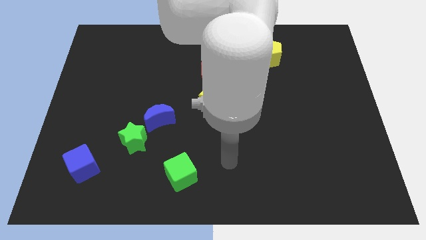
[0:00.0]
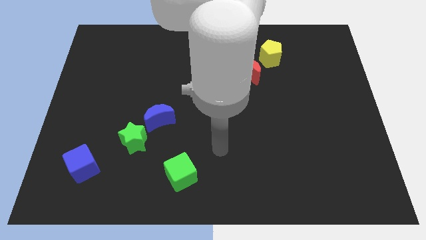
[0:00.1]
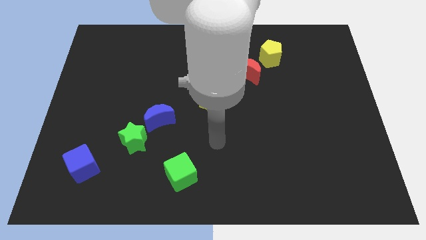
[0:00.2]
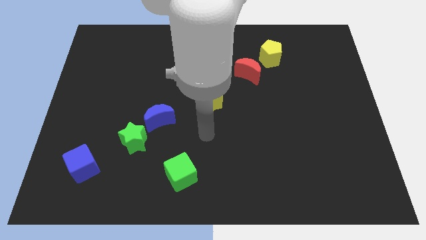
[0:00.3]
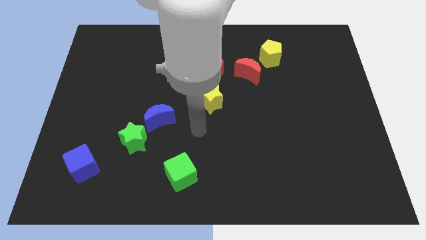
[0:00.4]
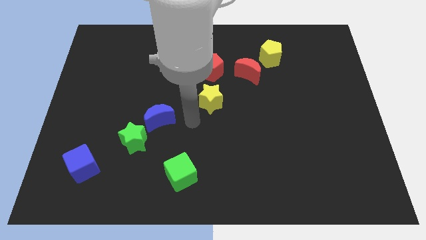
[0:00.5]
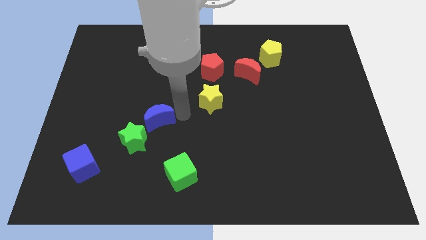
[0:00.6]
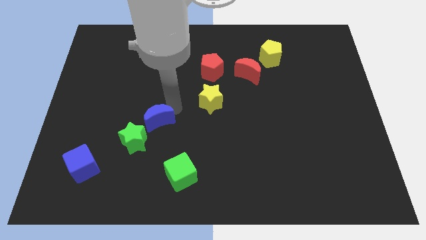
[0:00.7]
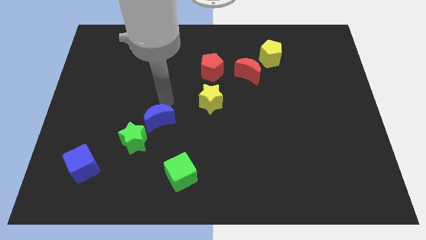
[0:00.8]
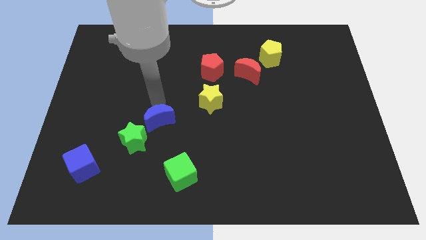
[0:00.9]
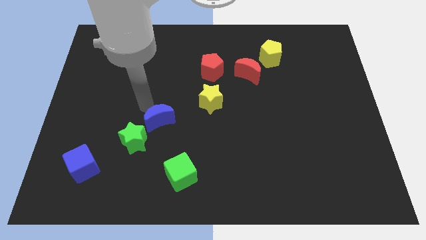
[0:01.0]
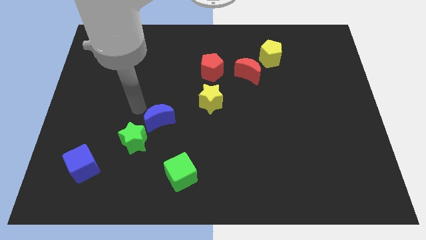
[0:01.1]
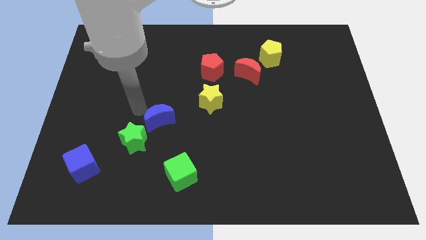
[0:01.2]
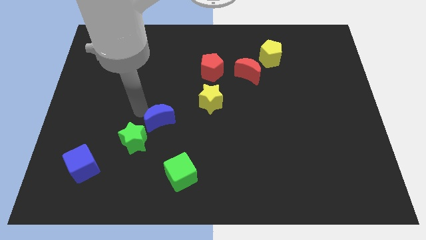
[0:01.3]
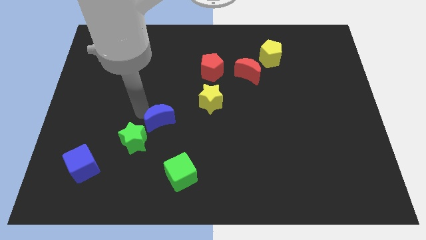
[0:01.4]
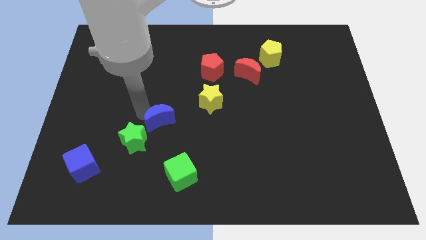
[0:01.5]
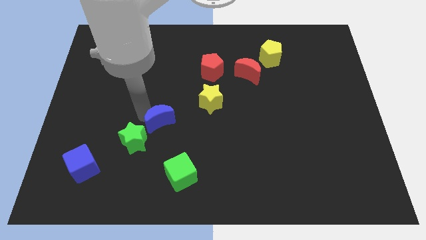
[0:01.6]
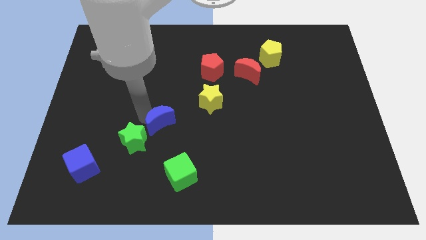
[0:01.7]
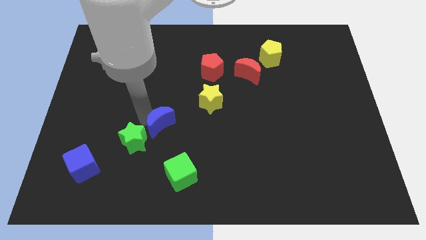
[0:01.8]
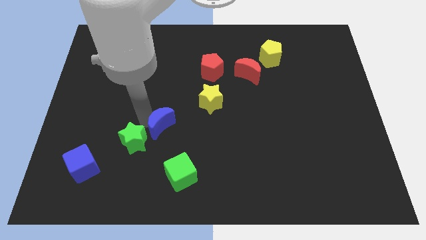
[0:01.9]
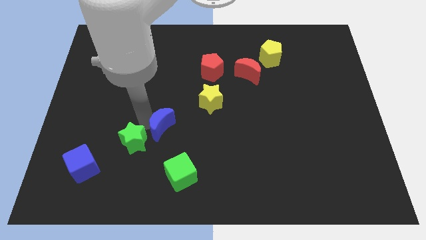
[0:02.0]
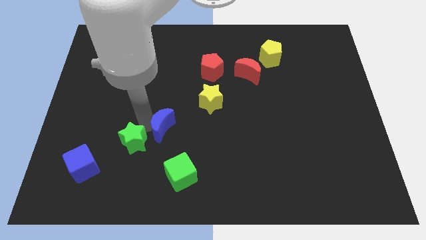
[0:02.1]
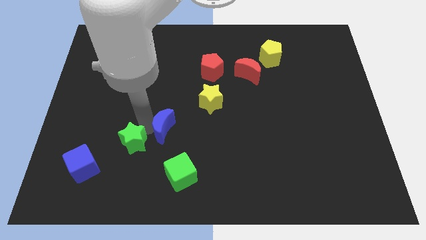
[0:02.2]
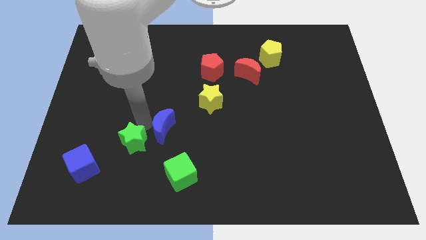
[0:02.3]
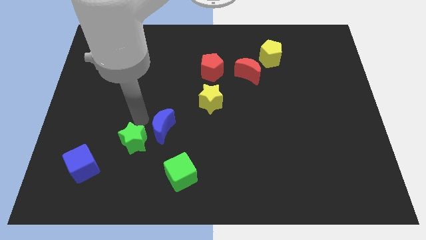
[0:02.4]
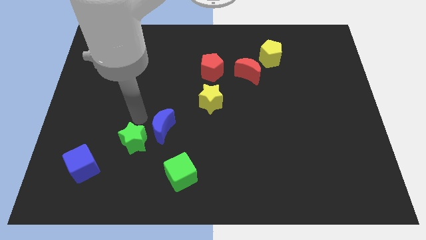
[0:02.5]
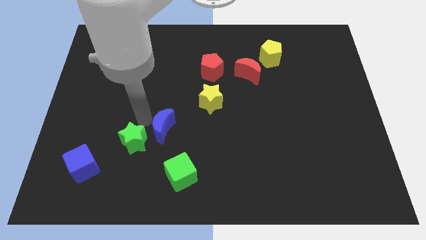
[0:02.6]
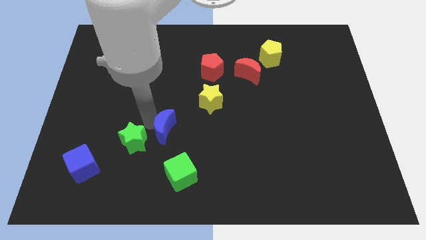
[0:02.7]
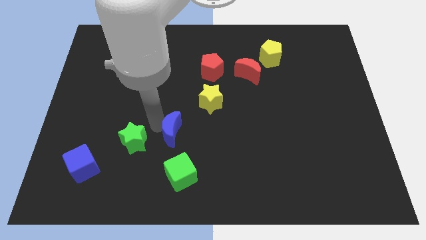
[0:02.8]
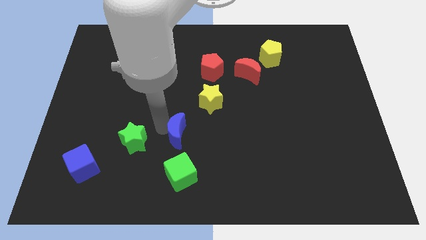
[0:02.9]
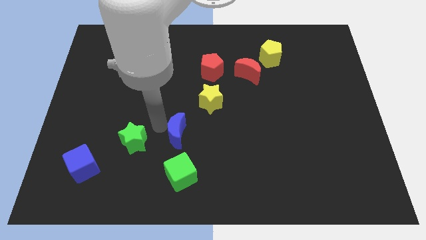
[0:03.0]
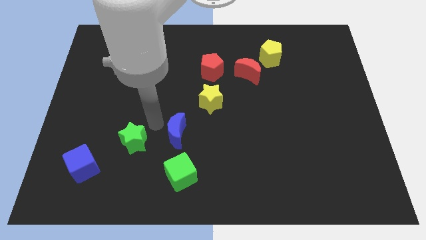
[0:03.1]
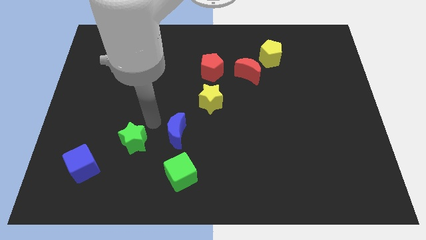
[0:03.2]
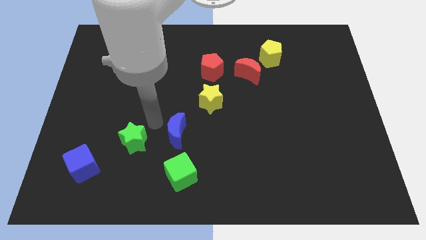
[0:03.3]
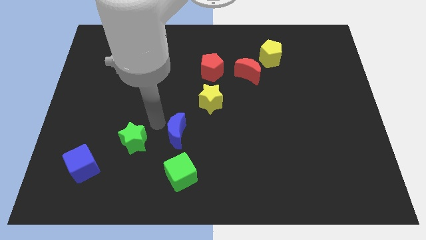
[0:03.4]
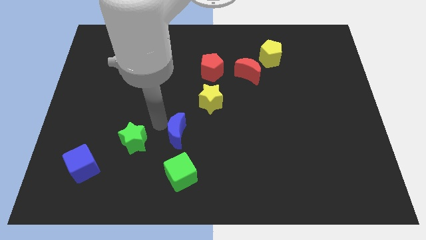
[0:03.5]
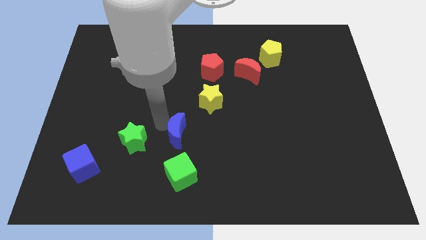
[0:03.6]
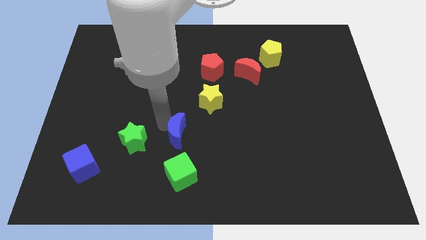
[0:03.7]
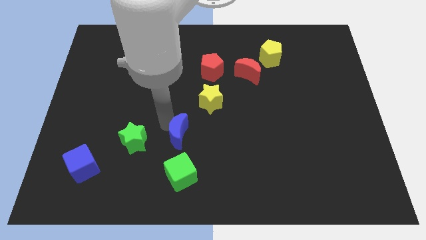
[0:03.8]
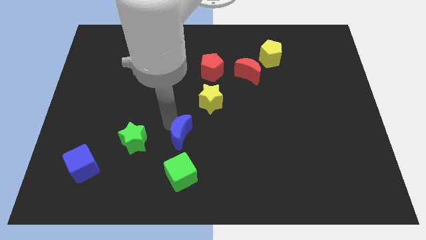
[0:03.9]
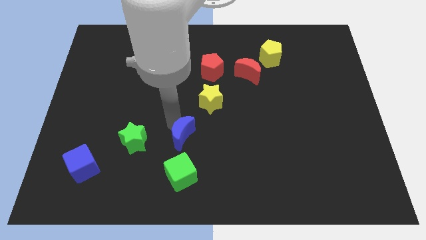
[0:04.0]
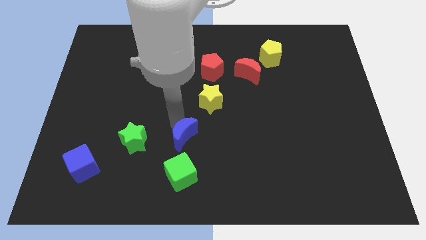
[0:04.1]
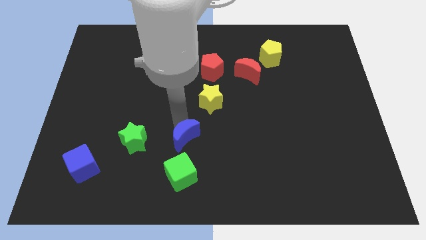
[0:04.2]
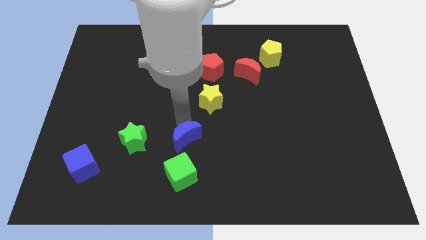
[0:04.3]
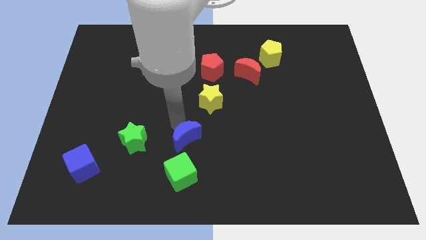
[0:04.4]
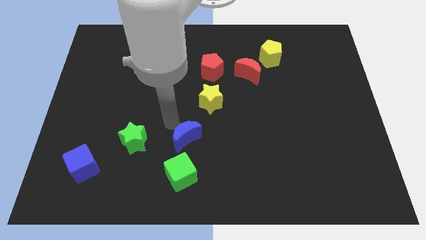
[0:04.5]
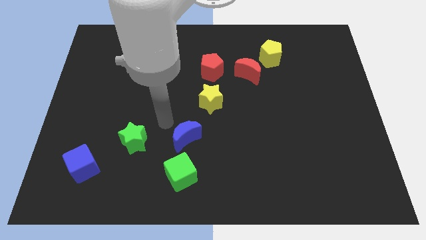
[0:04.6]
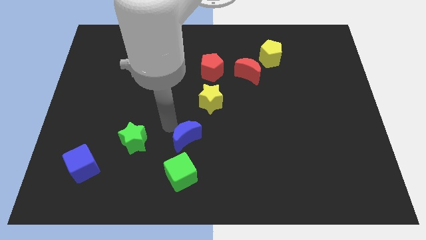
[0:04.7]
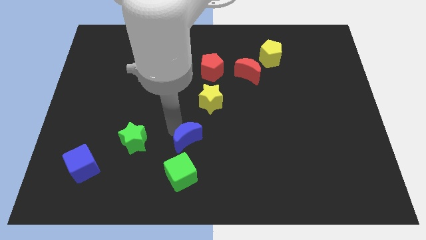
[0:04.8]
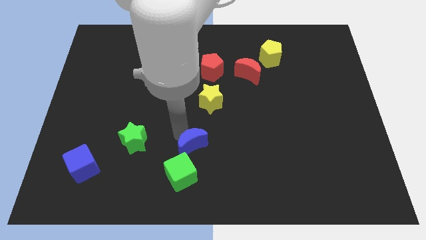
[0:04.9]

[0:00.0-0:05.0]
push the blue moon diagonally up and to the right of the green cube

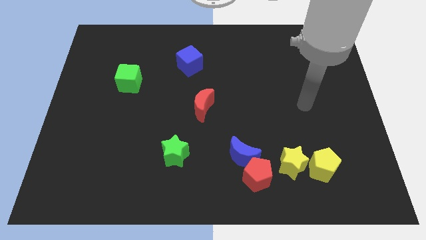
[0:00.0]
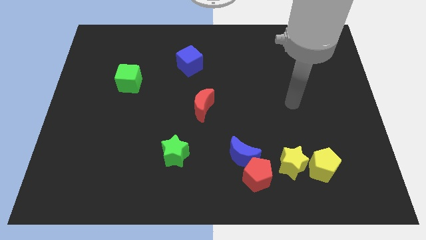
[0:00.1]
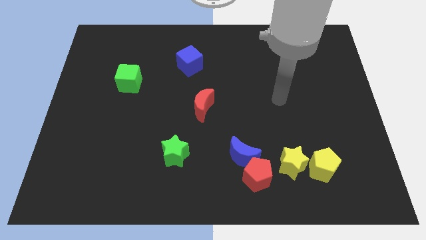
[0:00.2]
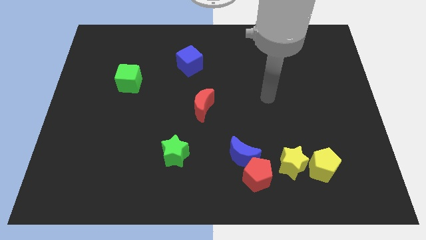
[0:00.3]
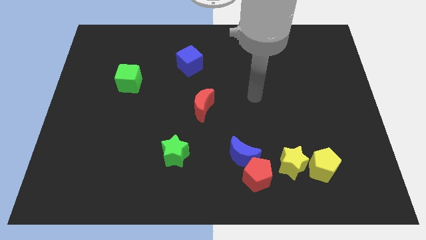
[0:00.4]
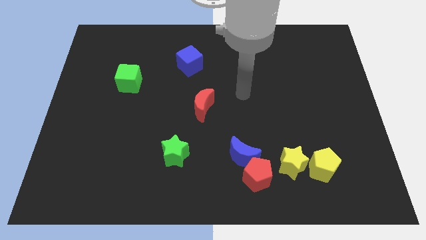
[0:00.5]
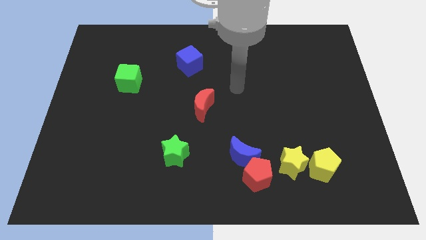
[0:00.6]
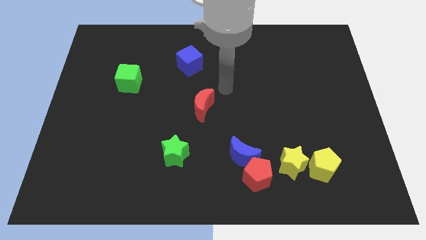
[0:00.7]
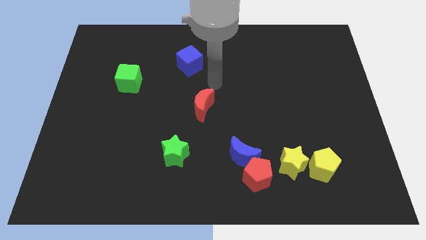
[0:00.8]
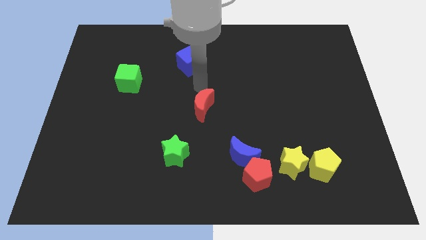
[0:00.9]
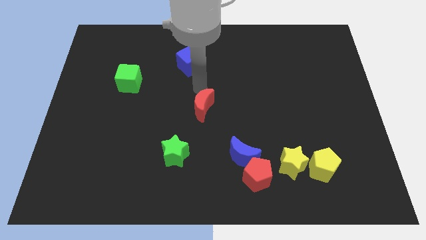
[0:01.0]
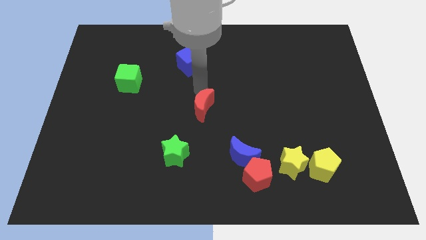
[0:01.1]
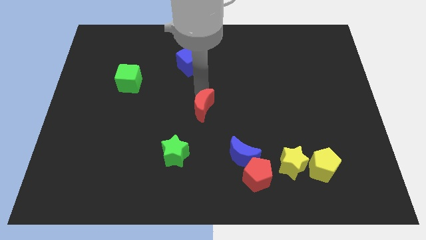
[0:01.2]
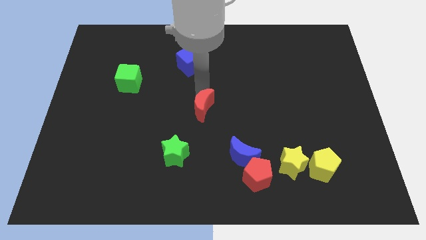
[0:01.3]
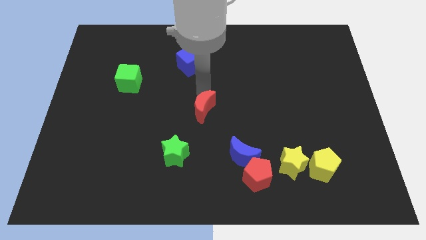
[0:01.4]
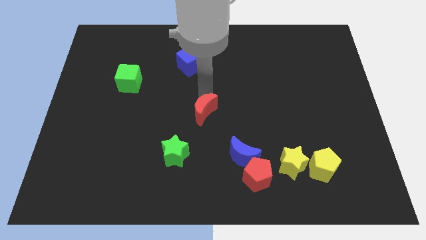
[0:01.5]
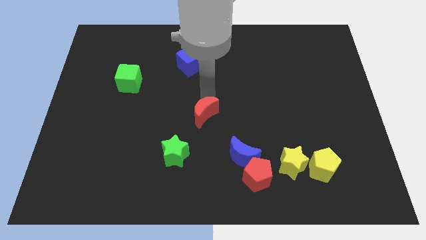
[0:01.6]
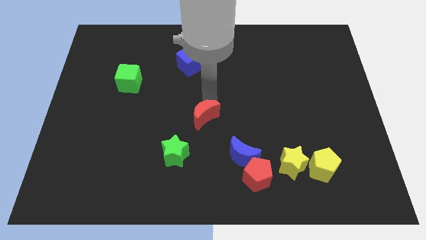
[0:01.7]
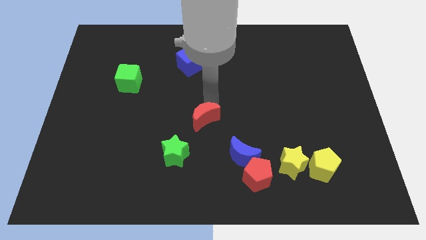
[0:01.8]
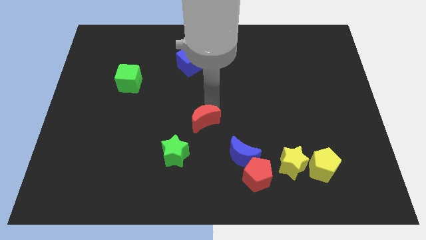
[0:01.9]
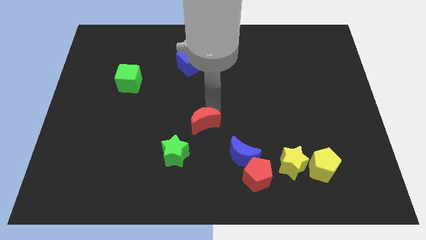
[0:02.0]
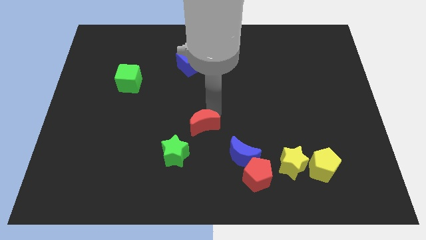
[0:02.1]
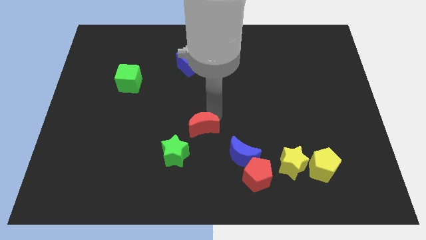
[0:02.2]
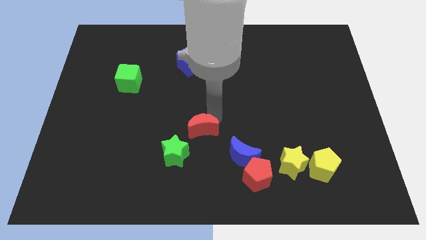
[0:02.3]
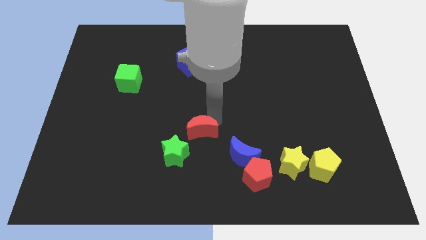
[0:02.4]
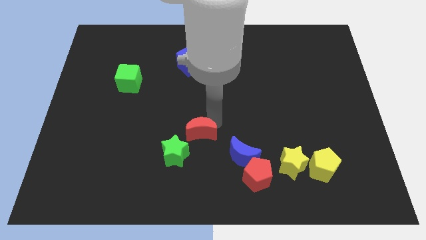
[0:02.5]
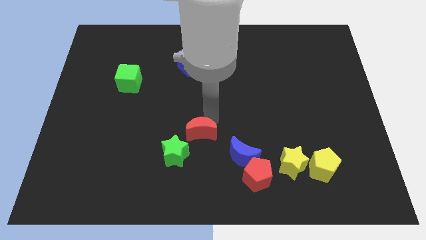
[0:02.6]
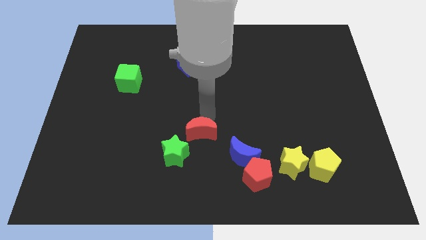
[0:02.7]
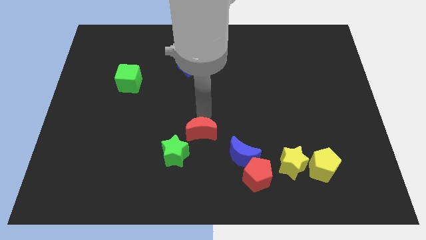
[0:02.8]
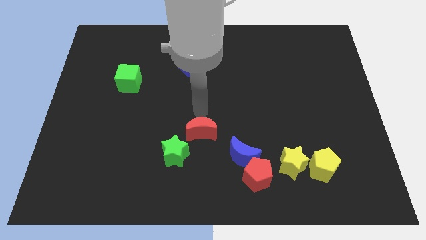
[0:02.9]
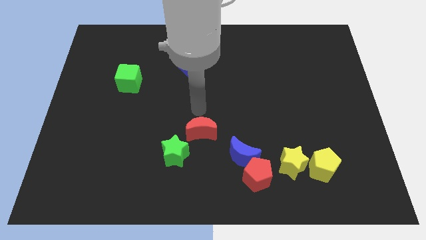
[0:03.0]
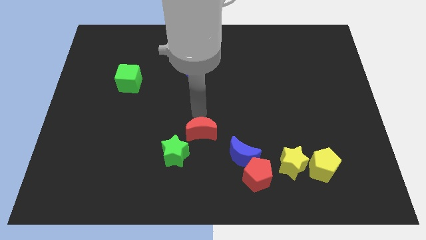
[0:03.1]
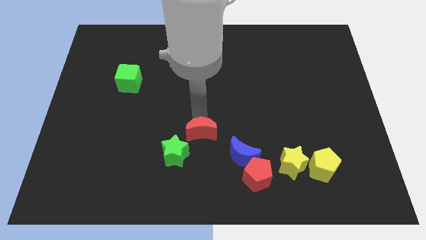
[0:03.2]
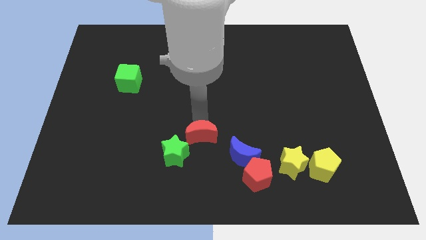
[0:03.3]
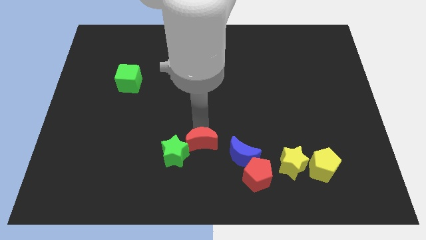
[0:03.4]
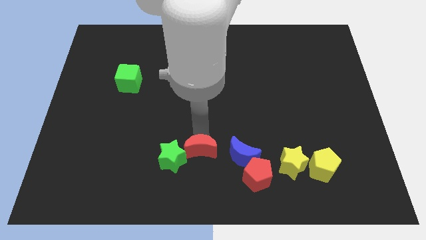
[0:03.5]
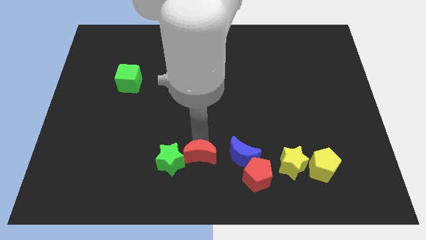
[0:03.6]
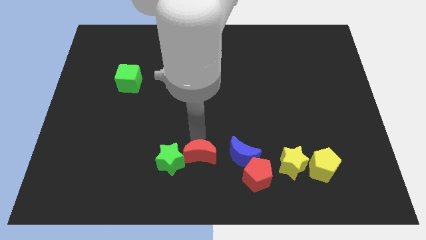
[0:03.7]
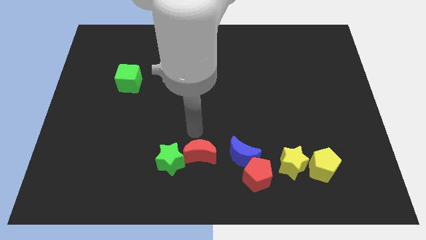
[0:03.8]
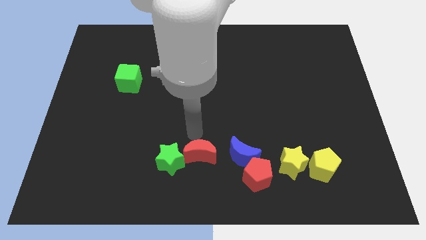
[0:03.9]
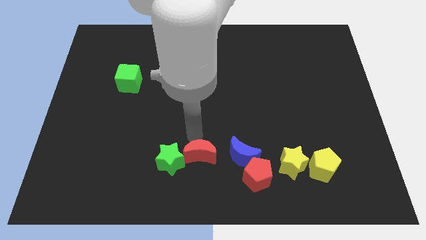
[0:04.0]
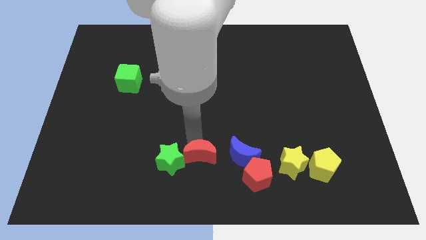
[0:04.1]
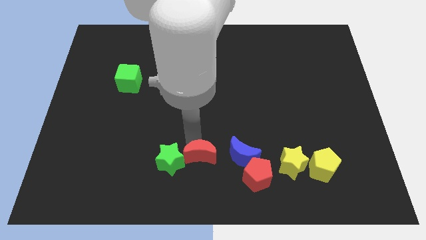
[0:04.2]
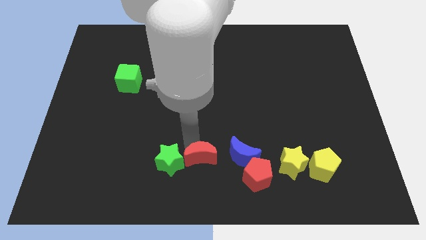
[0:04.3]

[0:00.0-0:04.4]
slide the red moon to the left side of the red pentagon
